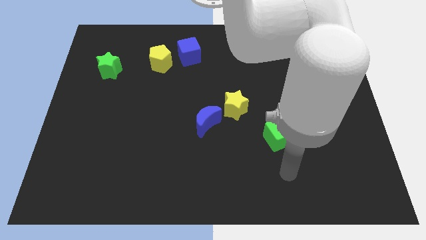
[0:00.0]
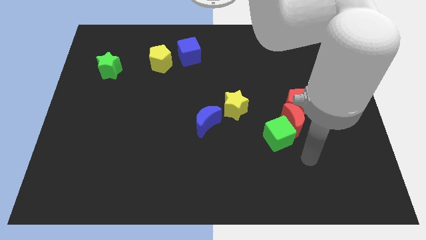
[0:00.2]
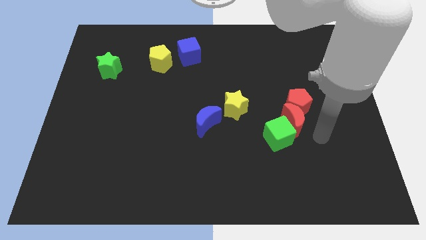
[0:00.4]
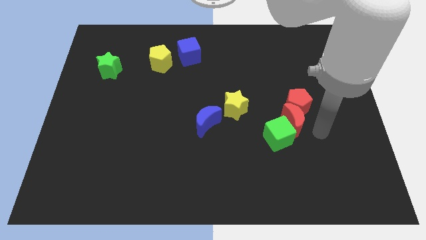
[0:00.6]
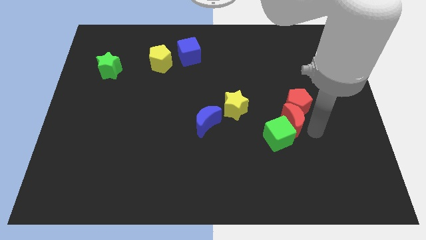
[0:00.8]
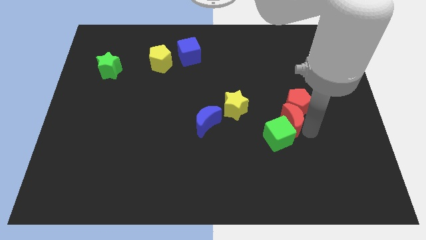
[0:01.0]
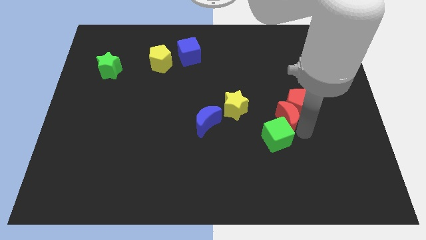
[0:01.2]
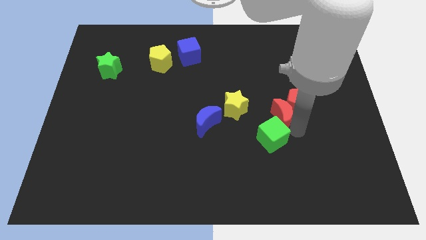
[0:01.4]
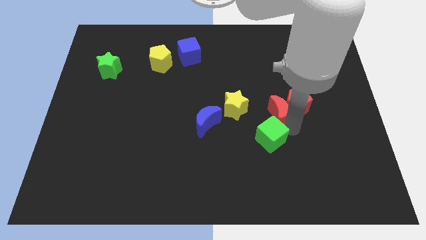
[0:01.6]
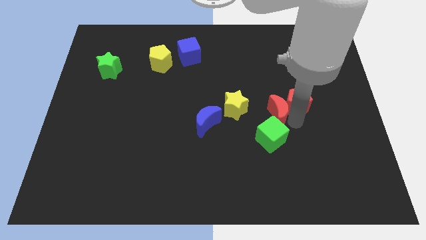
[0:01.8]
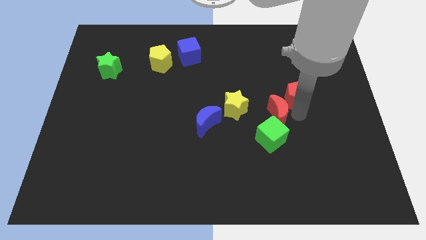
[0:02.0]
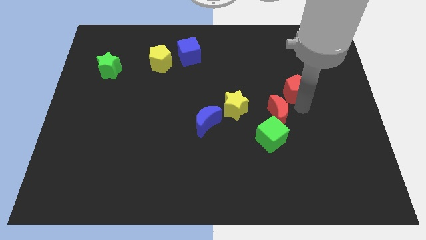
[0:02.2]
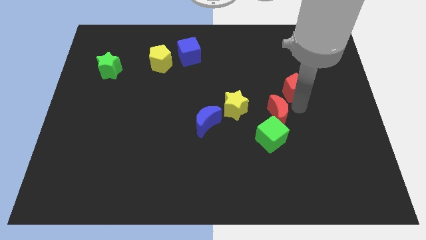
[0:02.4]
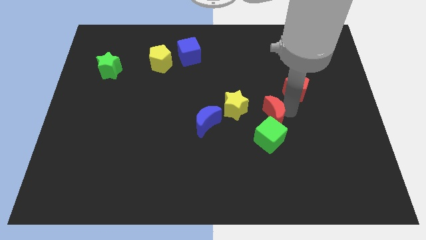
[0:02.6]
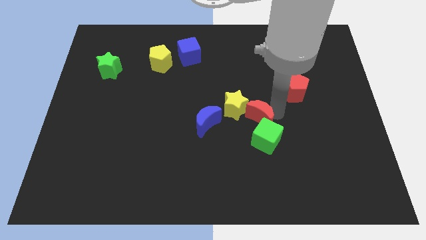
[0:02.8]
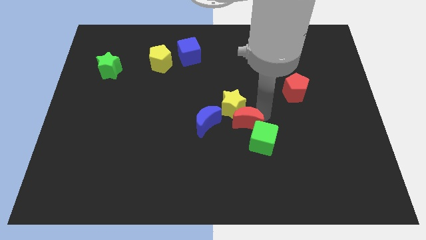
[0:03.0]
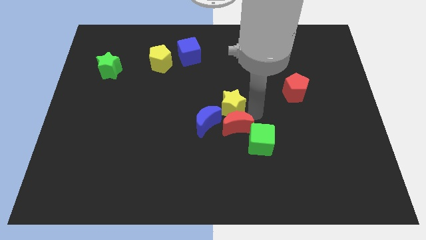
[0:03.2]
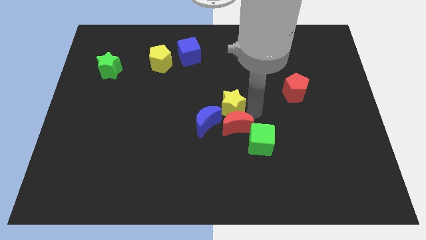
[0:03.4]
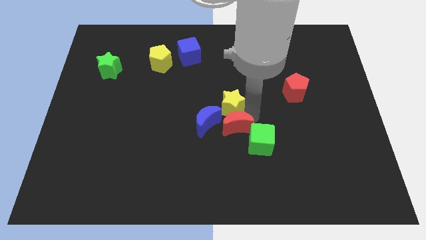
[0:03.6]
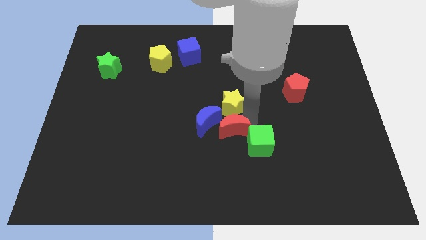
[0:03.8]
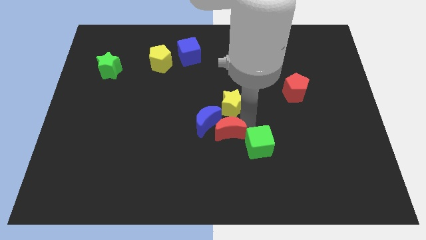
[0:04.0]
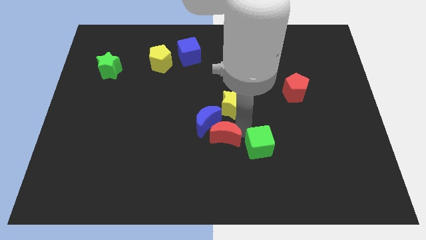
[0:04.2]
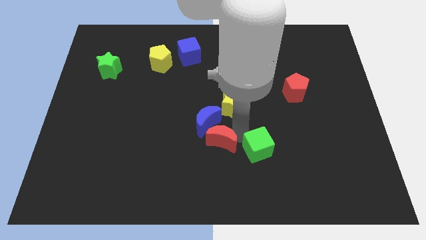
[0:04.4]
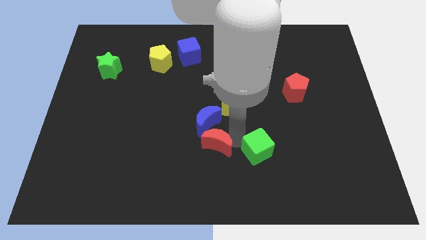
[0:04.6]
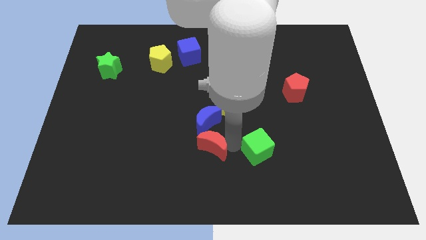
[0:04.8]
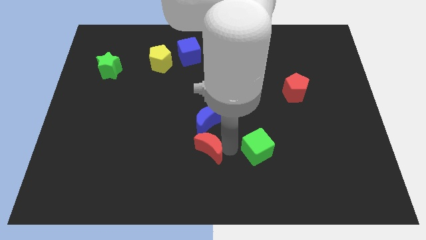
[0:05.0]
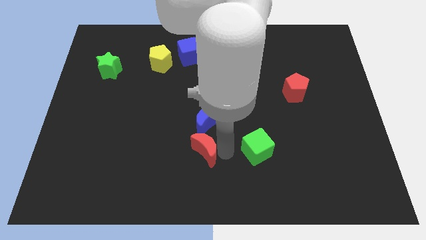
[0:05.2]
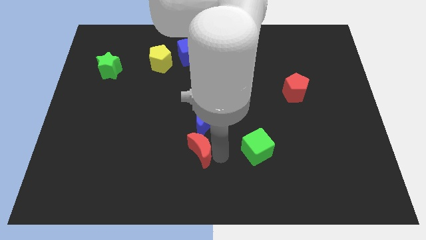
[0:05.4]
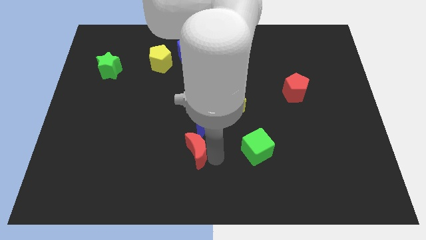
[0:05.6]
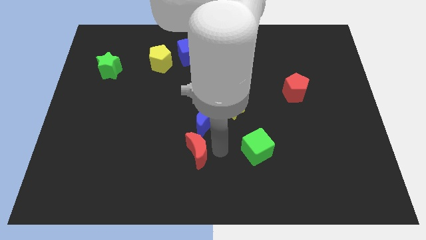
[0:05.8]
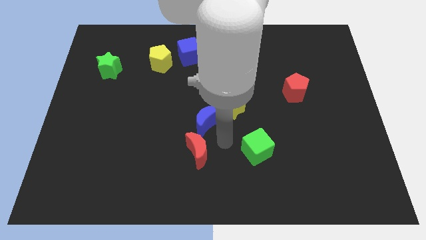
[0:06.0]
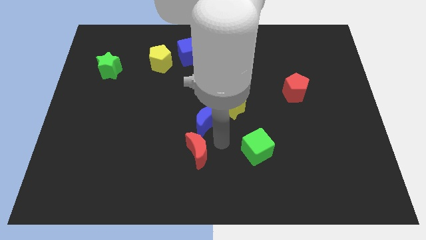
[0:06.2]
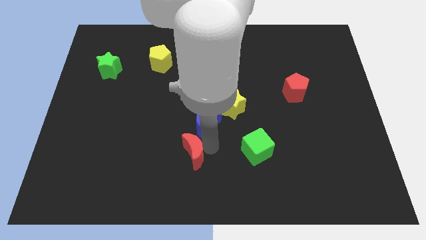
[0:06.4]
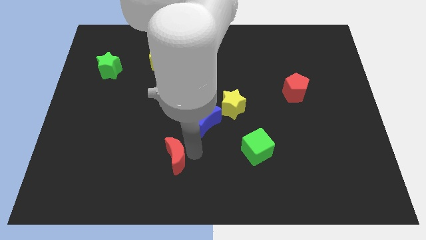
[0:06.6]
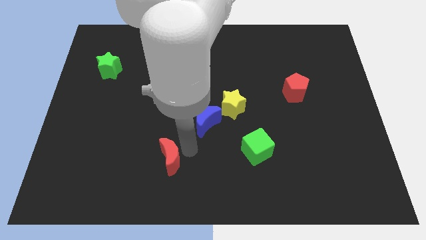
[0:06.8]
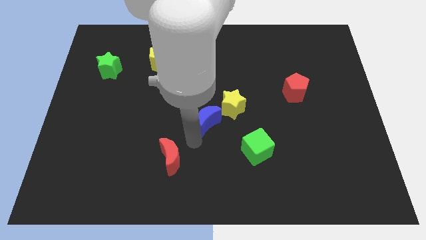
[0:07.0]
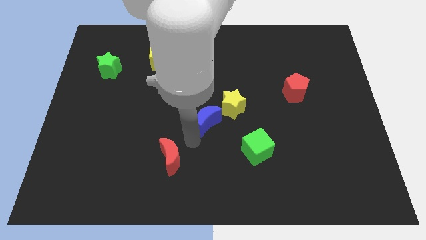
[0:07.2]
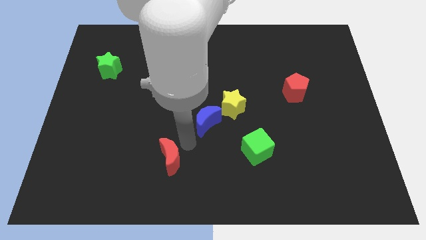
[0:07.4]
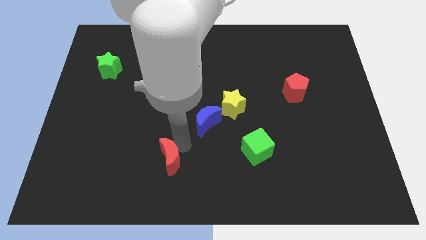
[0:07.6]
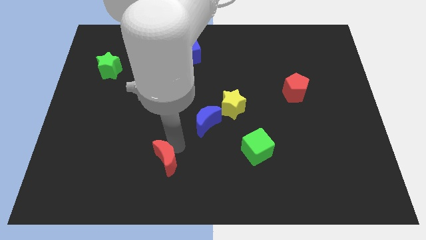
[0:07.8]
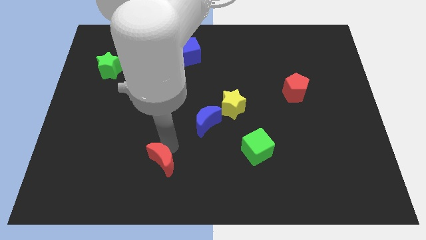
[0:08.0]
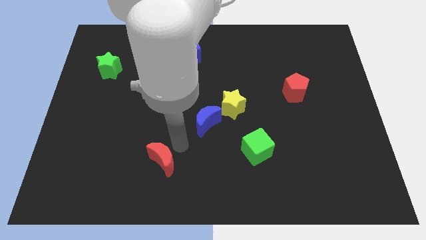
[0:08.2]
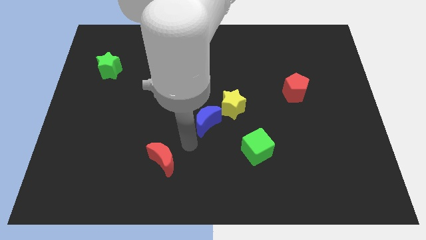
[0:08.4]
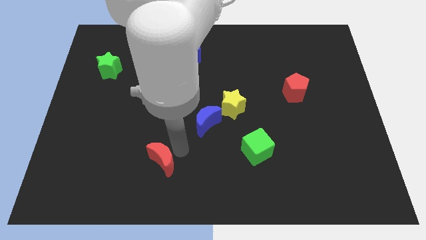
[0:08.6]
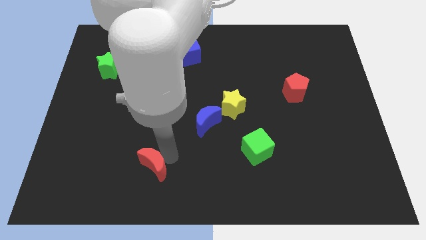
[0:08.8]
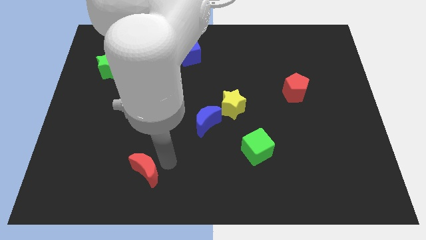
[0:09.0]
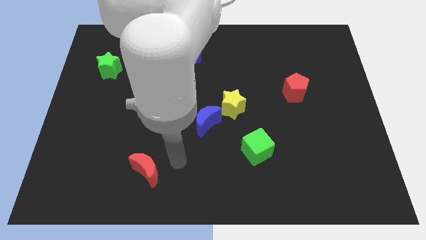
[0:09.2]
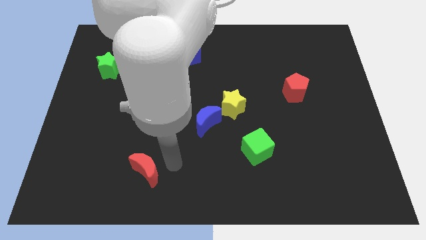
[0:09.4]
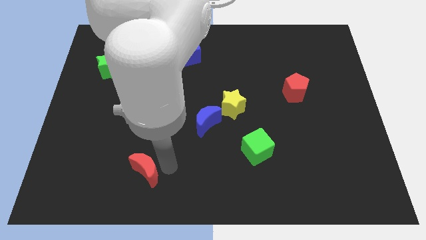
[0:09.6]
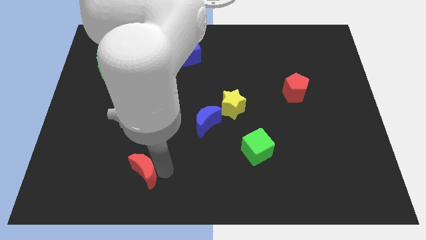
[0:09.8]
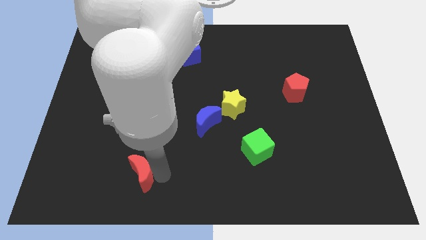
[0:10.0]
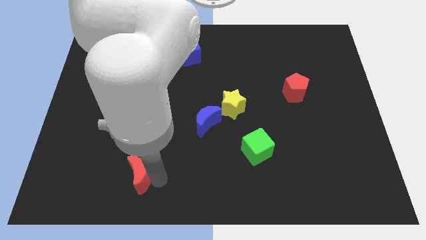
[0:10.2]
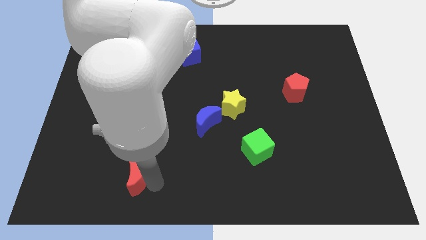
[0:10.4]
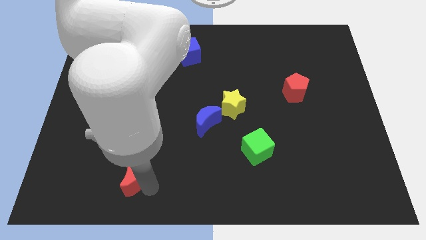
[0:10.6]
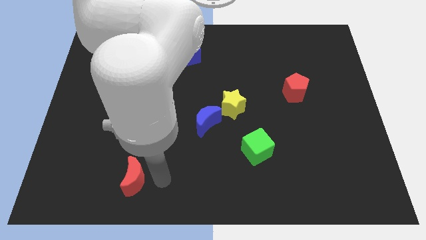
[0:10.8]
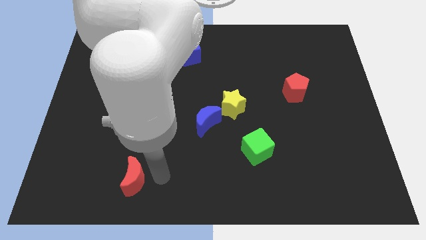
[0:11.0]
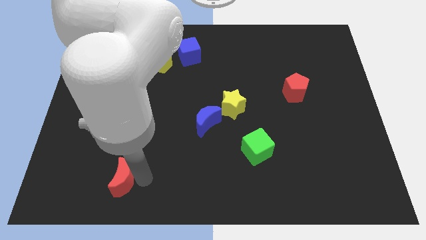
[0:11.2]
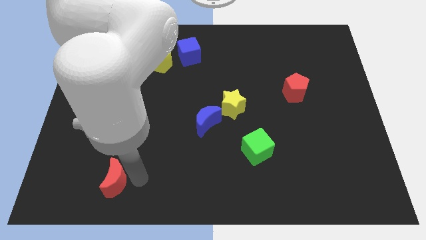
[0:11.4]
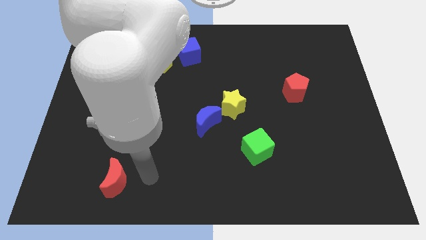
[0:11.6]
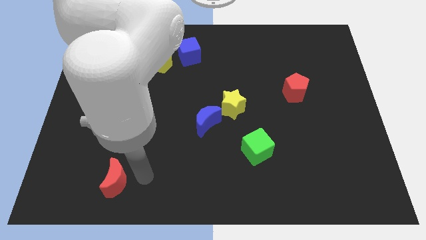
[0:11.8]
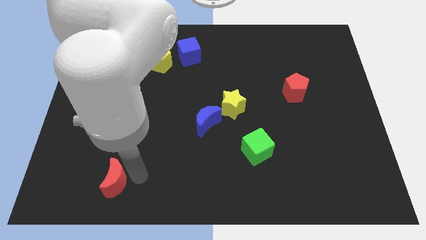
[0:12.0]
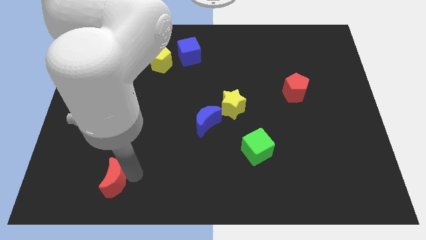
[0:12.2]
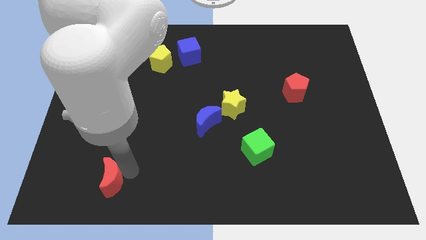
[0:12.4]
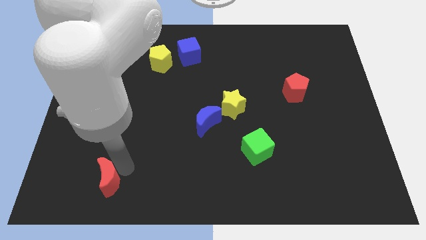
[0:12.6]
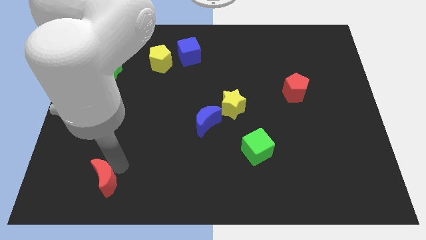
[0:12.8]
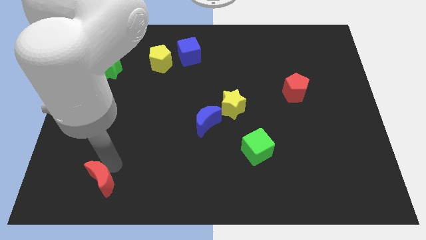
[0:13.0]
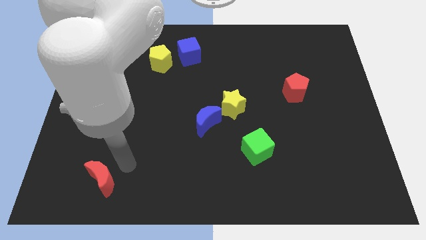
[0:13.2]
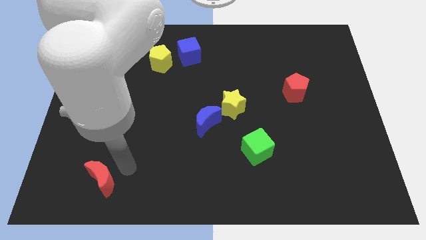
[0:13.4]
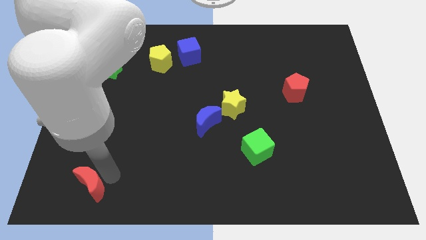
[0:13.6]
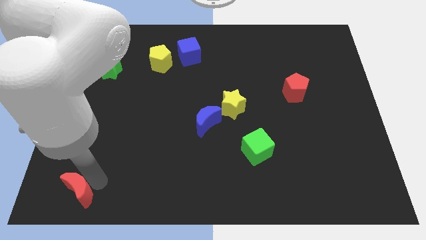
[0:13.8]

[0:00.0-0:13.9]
move the red moon to the bottom left of the board
